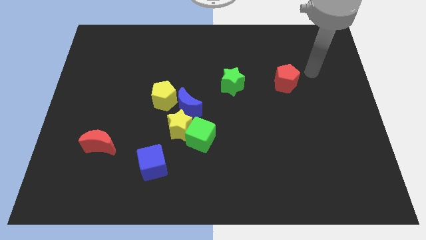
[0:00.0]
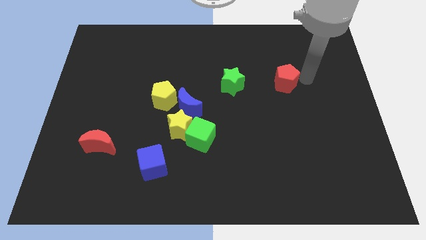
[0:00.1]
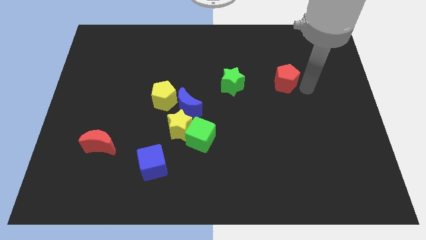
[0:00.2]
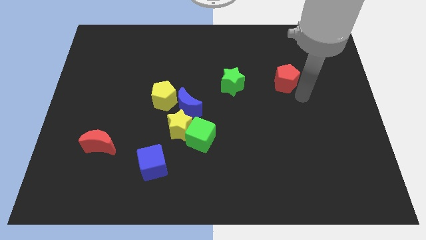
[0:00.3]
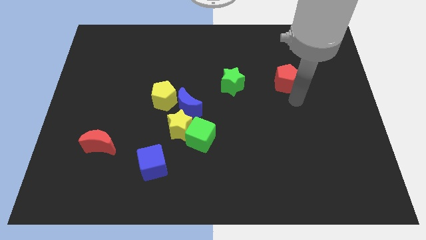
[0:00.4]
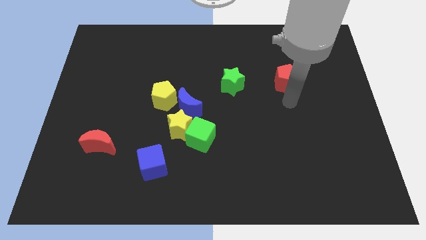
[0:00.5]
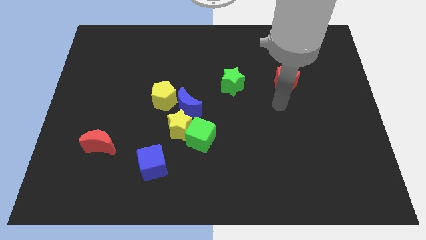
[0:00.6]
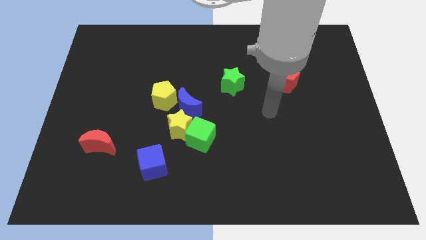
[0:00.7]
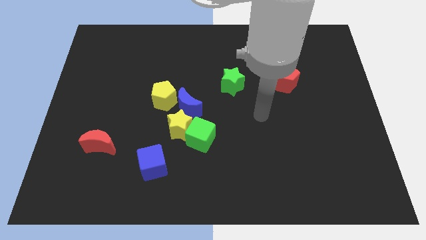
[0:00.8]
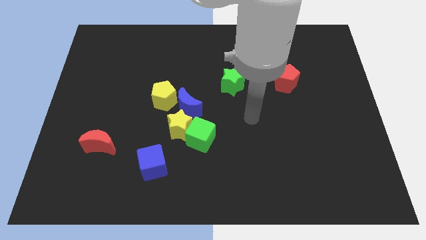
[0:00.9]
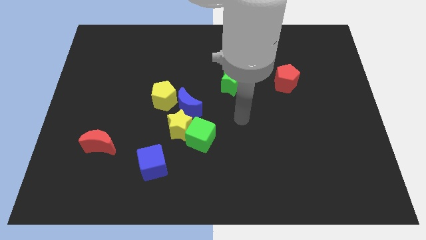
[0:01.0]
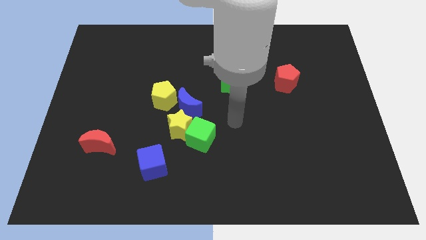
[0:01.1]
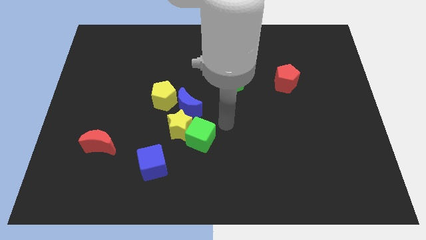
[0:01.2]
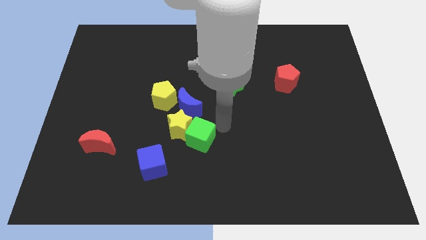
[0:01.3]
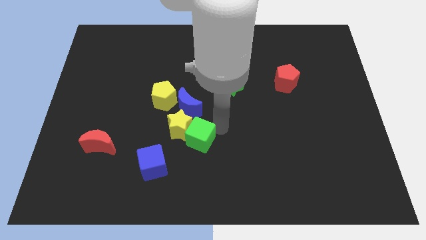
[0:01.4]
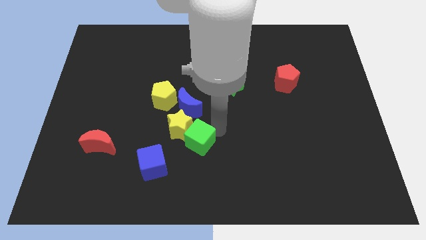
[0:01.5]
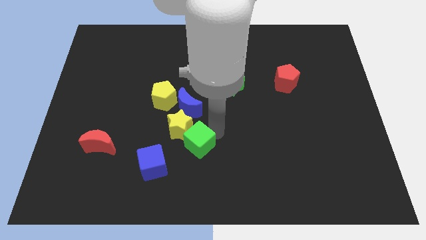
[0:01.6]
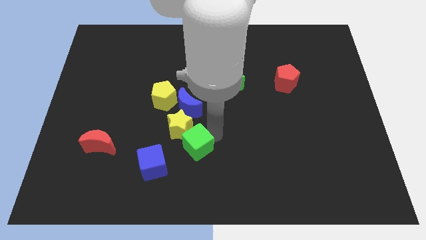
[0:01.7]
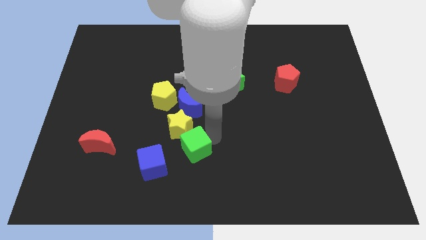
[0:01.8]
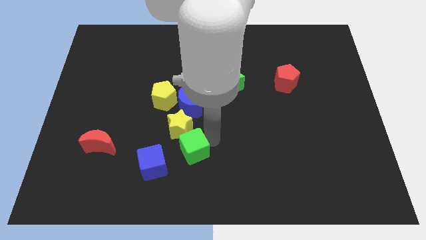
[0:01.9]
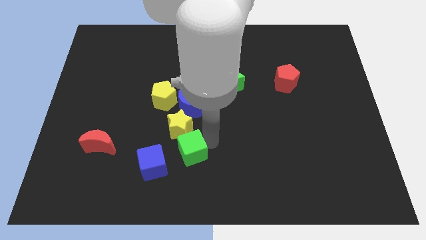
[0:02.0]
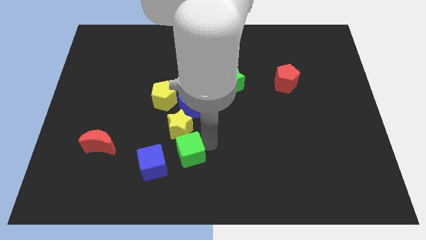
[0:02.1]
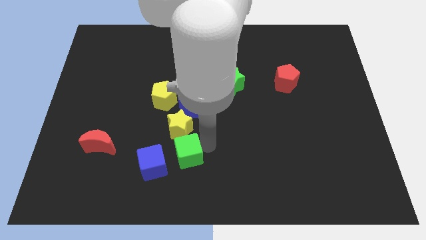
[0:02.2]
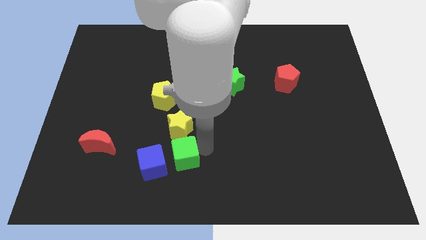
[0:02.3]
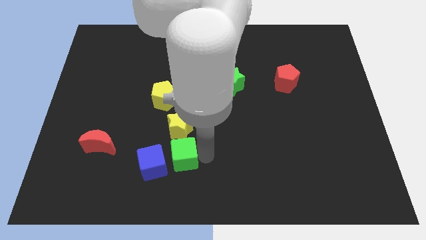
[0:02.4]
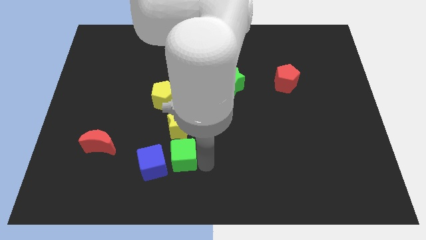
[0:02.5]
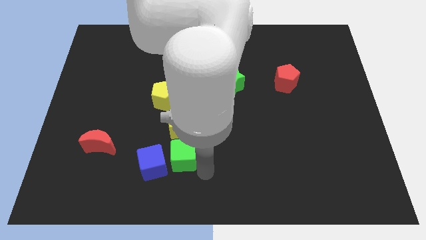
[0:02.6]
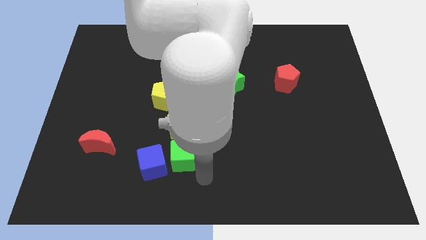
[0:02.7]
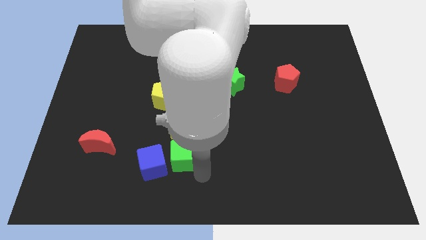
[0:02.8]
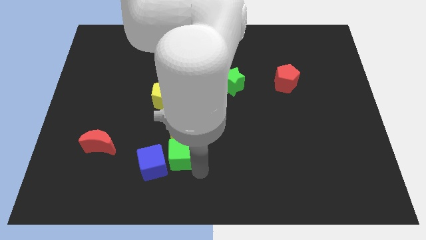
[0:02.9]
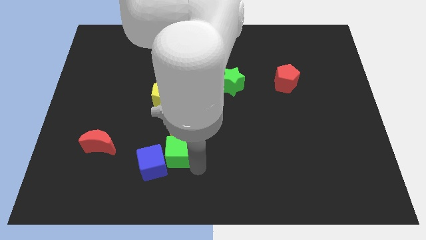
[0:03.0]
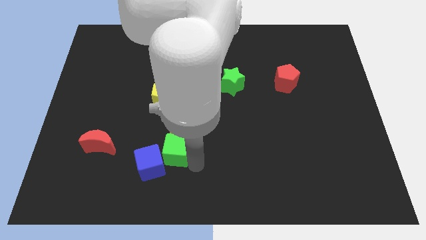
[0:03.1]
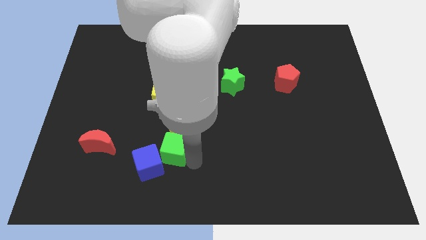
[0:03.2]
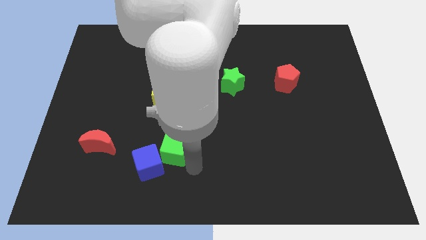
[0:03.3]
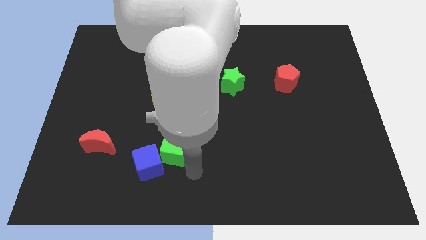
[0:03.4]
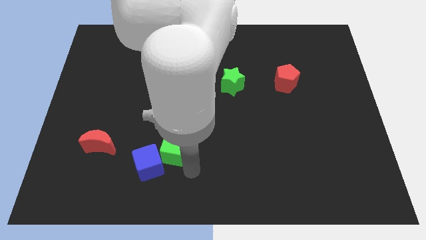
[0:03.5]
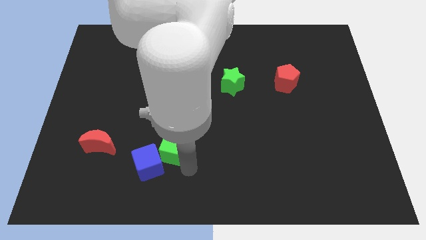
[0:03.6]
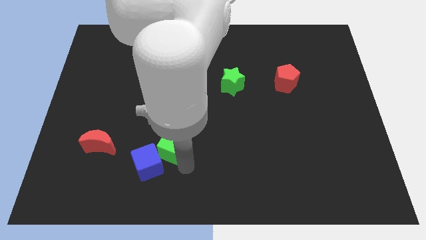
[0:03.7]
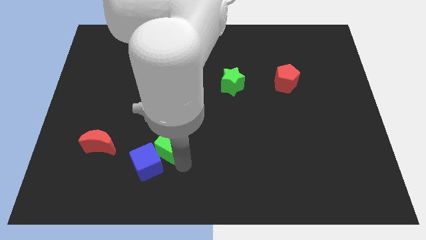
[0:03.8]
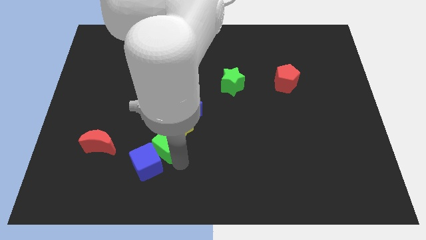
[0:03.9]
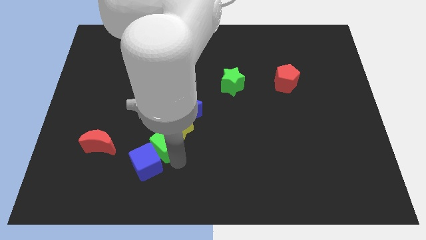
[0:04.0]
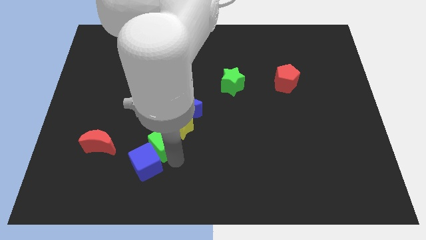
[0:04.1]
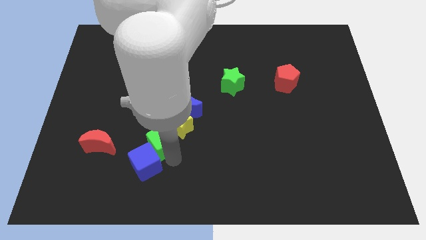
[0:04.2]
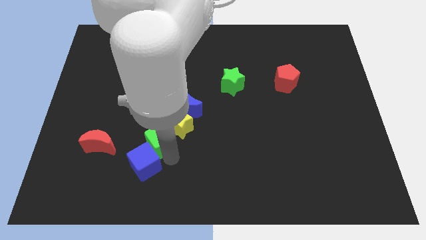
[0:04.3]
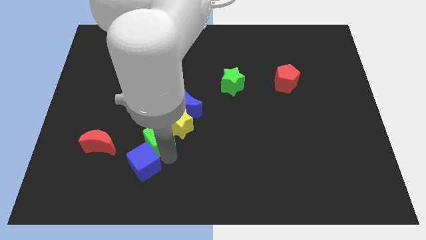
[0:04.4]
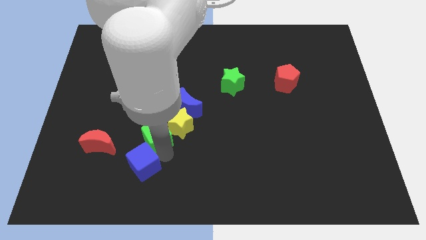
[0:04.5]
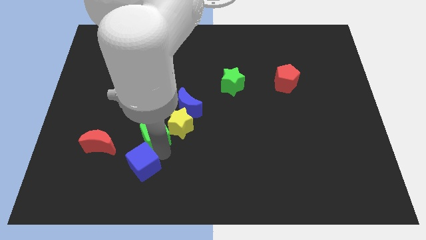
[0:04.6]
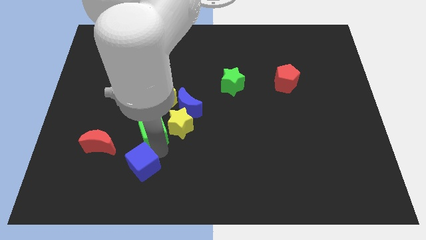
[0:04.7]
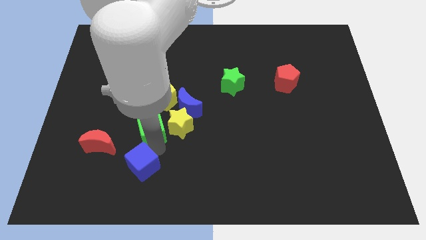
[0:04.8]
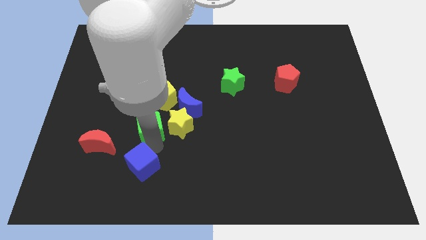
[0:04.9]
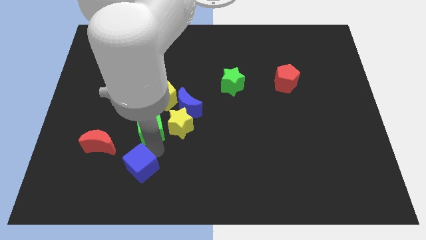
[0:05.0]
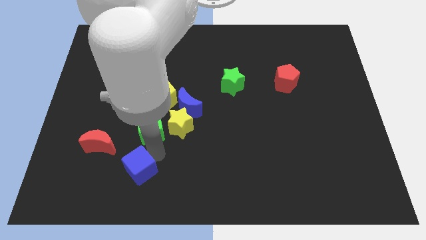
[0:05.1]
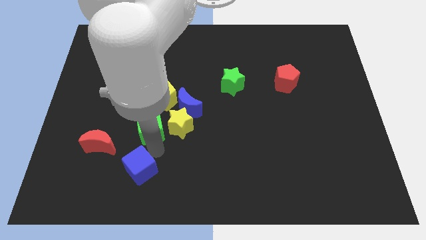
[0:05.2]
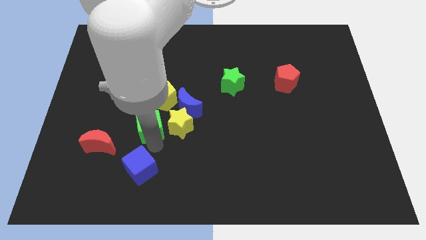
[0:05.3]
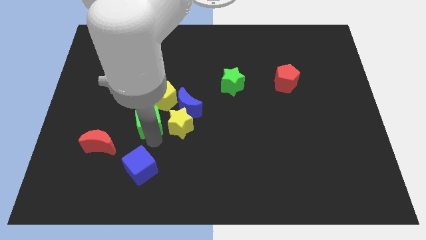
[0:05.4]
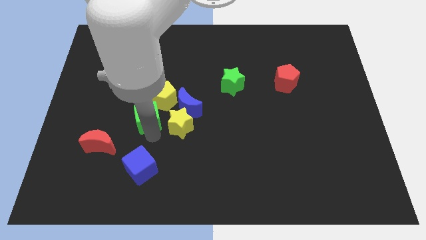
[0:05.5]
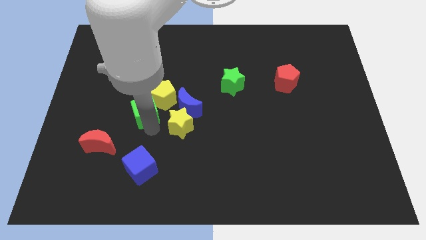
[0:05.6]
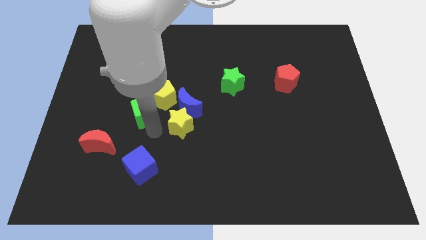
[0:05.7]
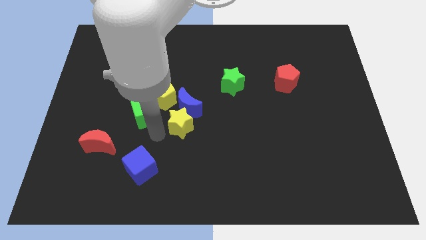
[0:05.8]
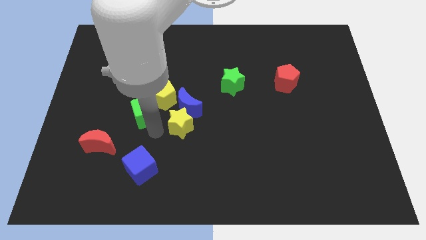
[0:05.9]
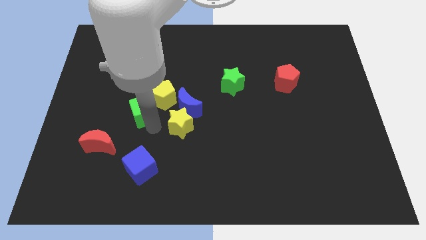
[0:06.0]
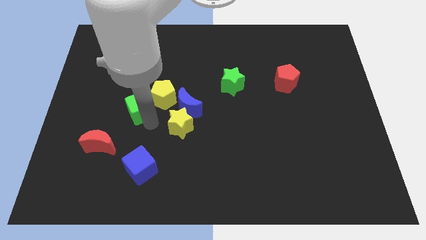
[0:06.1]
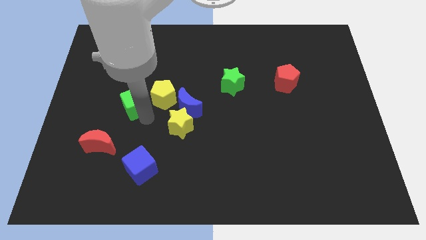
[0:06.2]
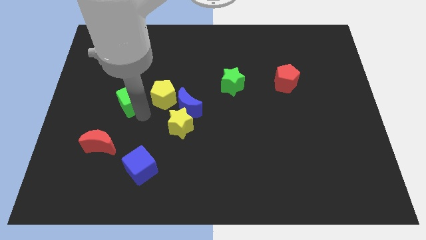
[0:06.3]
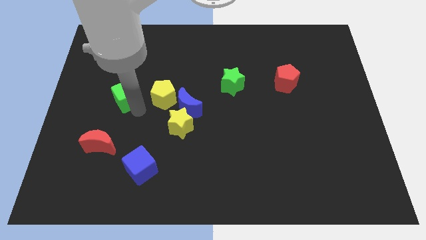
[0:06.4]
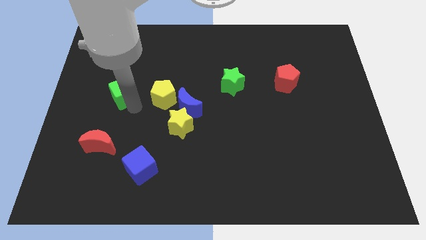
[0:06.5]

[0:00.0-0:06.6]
move the green cube upwards and left

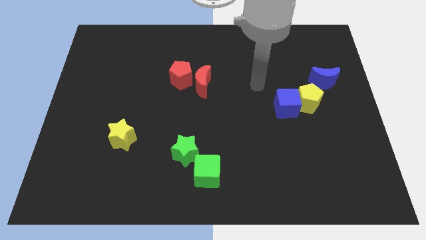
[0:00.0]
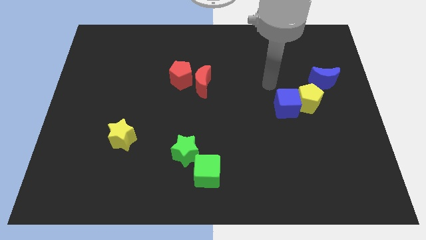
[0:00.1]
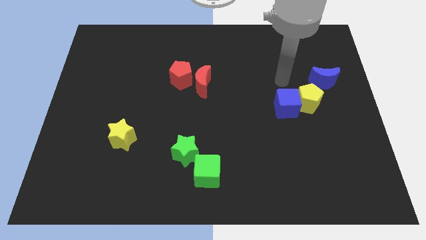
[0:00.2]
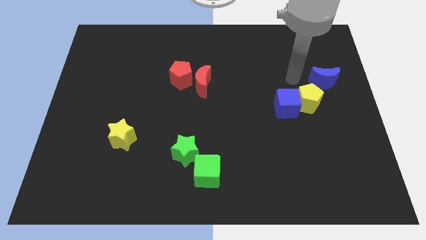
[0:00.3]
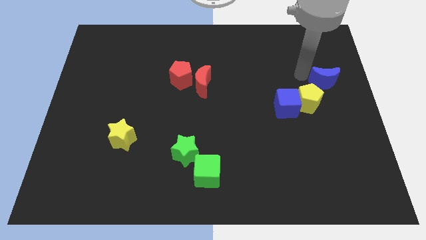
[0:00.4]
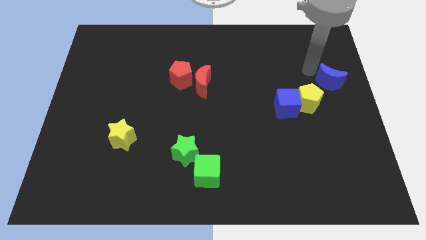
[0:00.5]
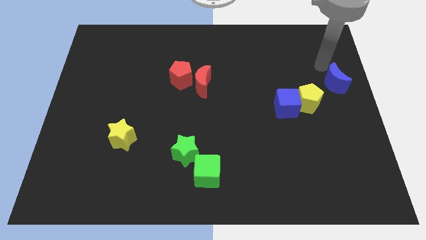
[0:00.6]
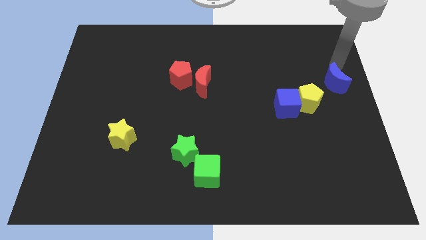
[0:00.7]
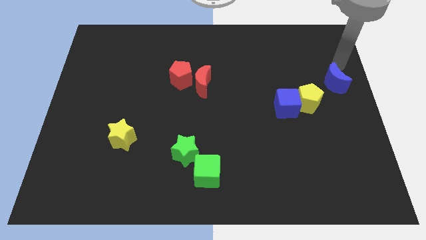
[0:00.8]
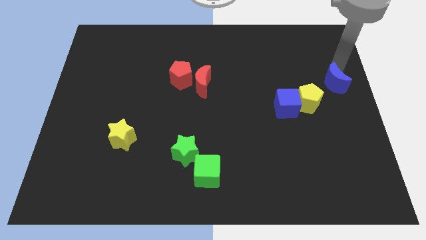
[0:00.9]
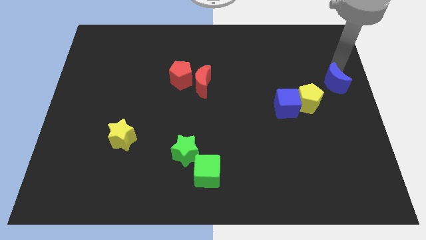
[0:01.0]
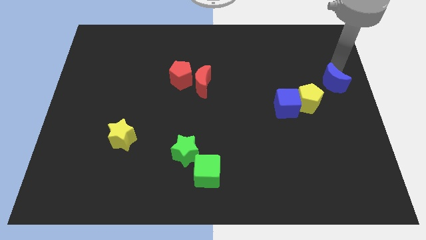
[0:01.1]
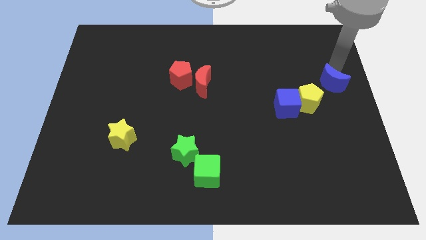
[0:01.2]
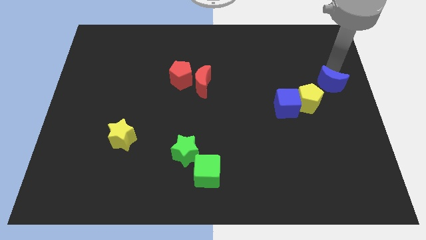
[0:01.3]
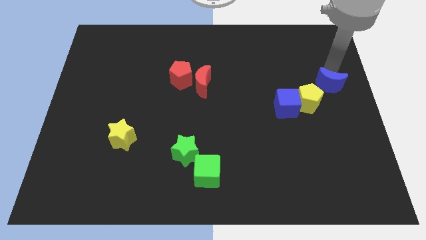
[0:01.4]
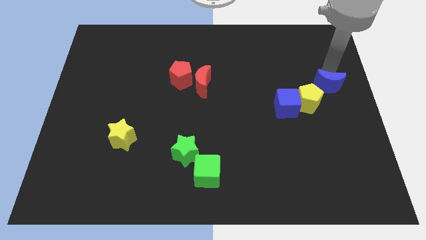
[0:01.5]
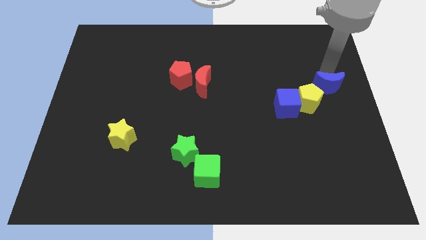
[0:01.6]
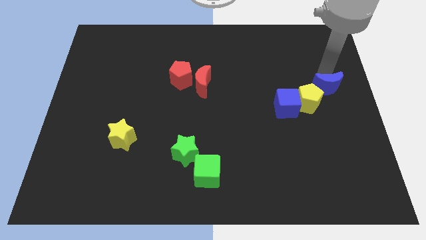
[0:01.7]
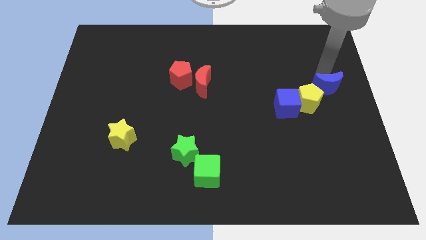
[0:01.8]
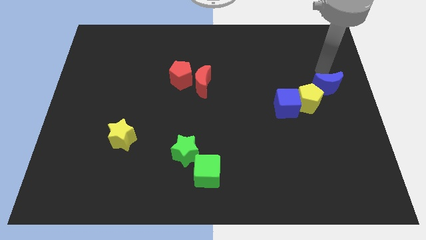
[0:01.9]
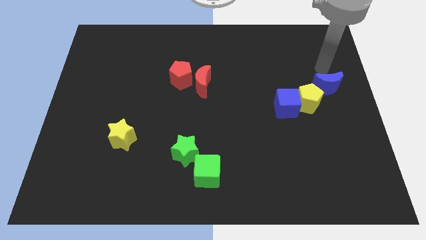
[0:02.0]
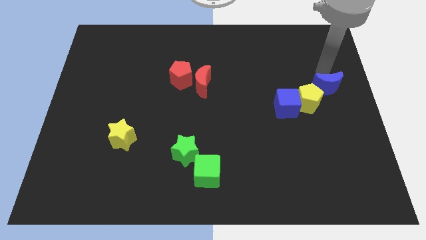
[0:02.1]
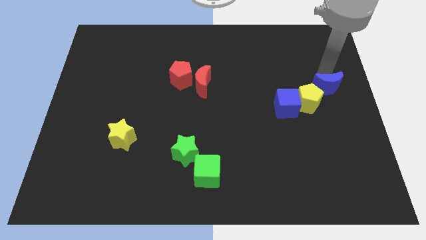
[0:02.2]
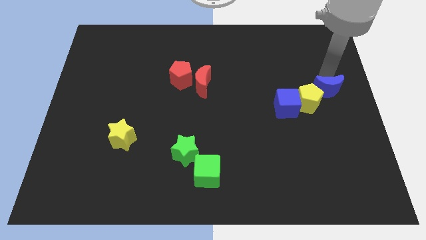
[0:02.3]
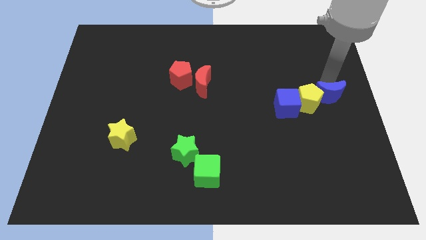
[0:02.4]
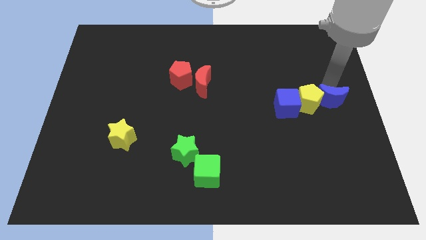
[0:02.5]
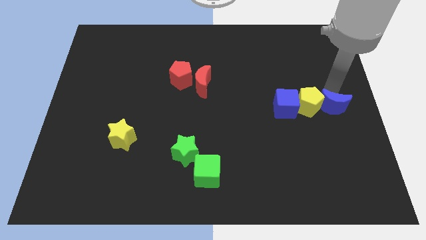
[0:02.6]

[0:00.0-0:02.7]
slide the blue moon down somewhat
